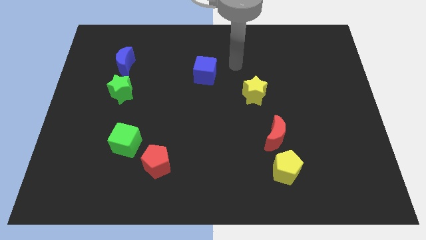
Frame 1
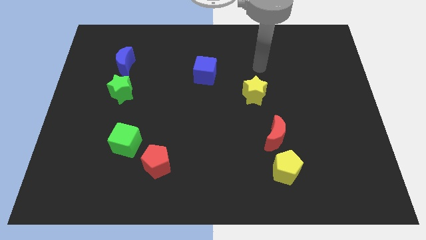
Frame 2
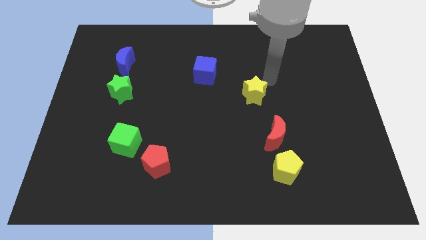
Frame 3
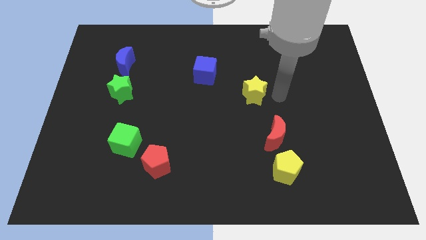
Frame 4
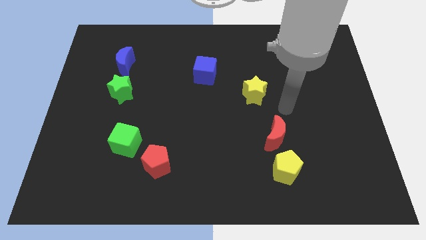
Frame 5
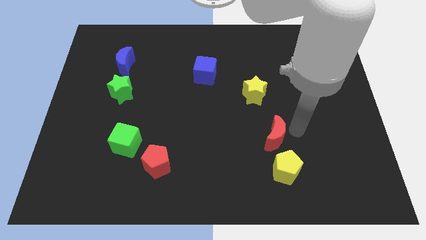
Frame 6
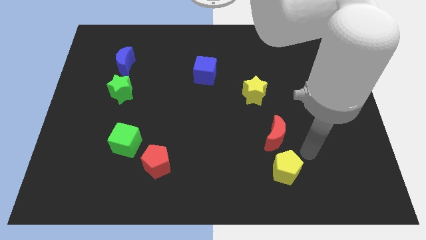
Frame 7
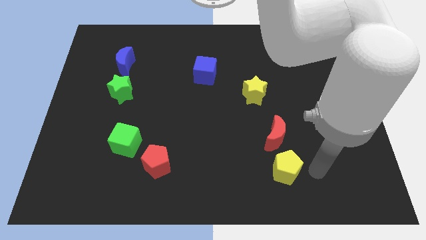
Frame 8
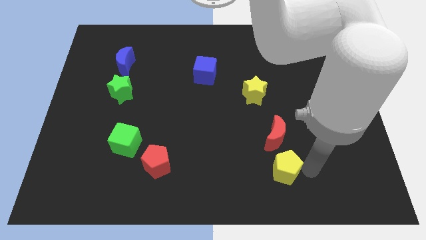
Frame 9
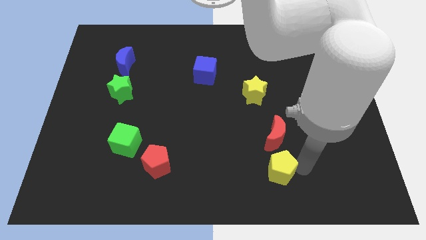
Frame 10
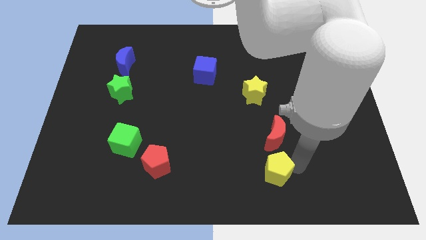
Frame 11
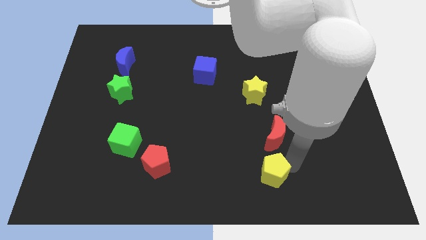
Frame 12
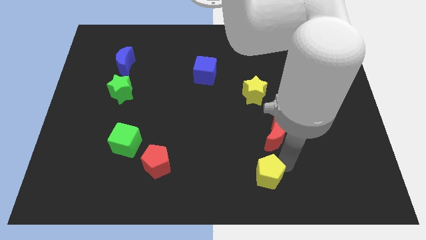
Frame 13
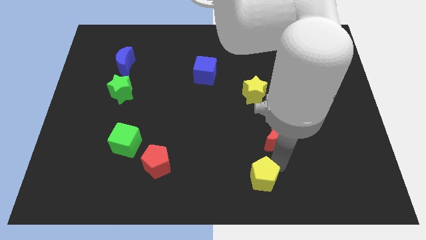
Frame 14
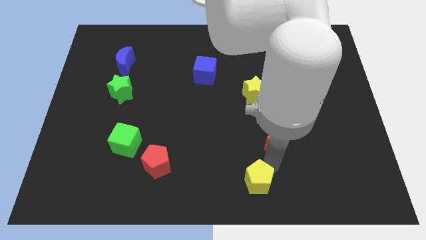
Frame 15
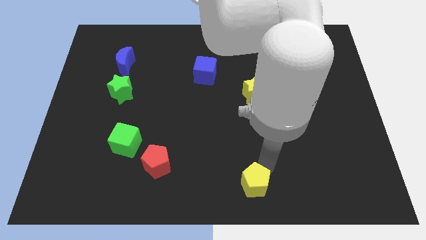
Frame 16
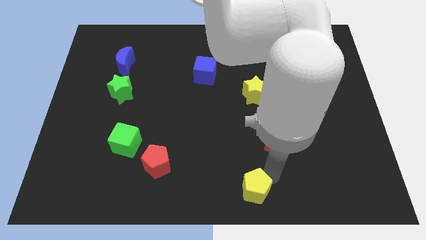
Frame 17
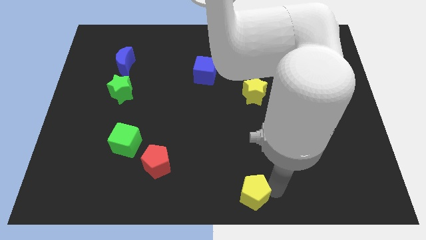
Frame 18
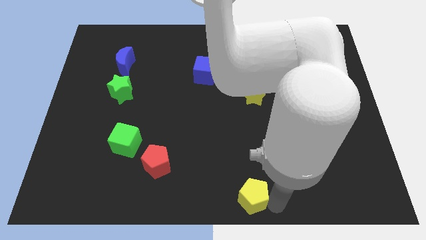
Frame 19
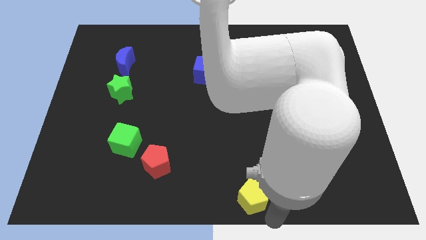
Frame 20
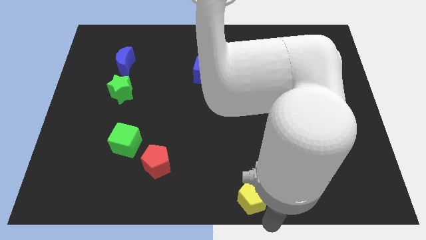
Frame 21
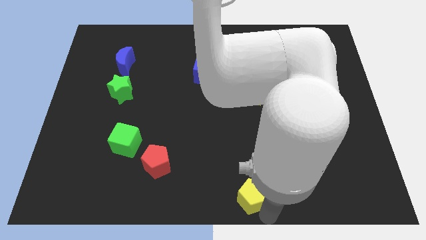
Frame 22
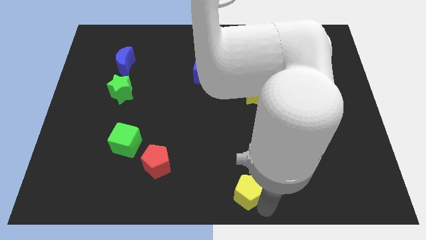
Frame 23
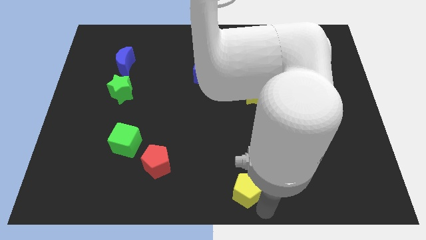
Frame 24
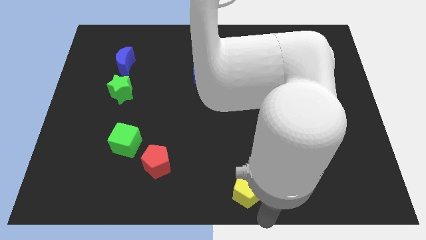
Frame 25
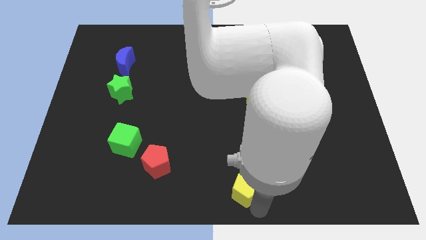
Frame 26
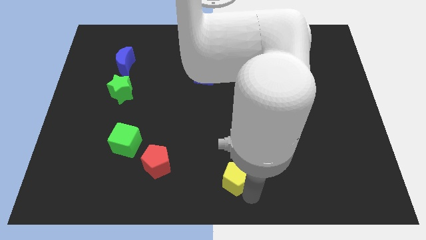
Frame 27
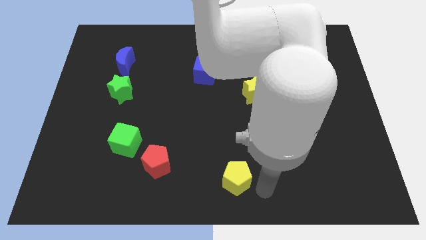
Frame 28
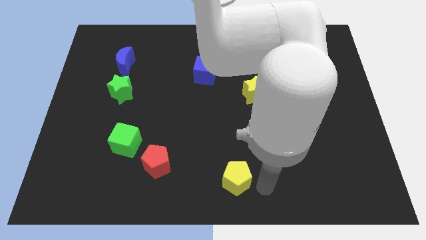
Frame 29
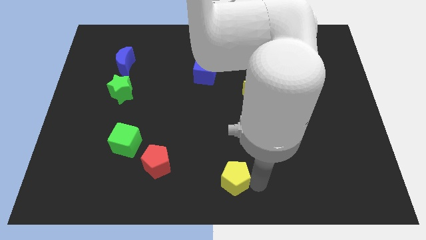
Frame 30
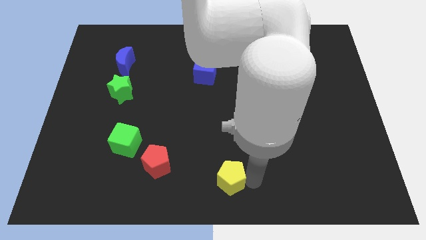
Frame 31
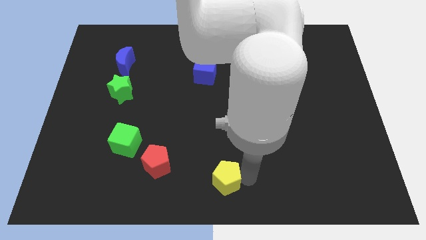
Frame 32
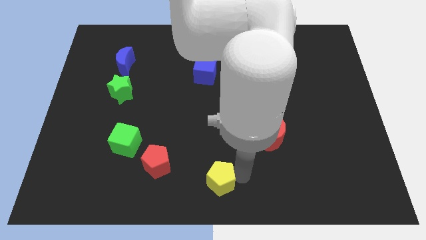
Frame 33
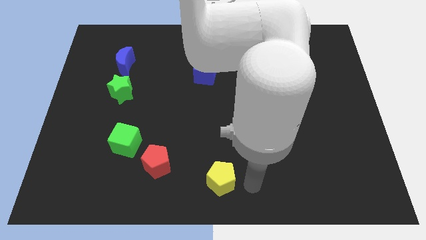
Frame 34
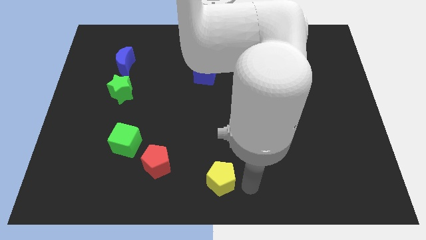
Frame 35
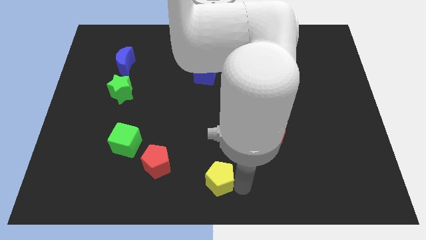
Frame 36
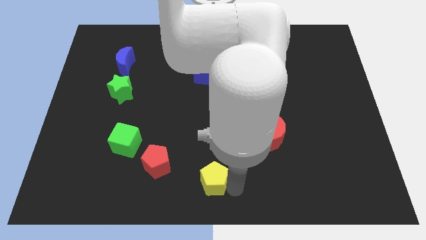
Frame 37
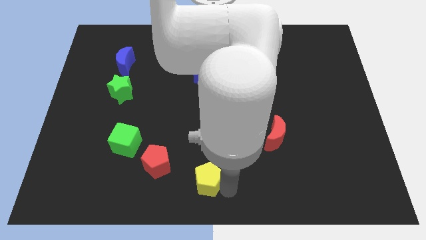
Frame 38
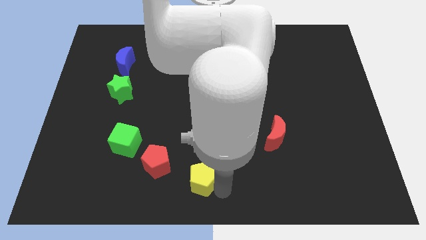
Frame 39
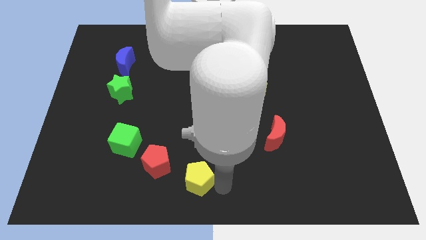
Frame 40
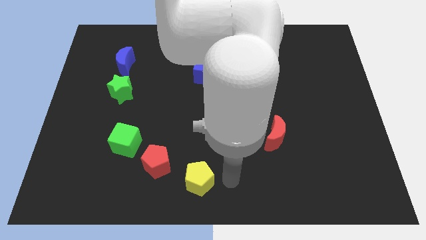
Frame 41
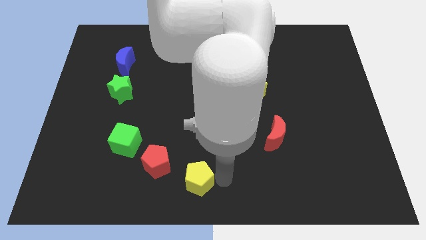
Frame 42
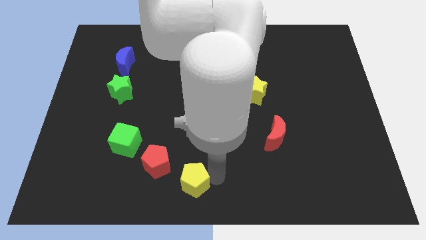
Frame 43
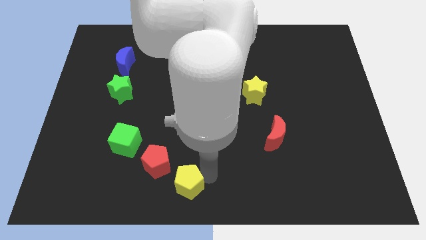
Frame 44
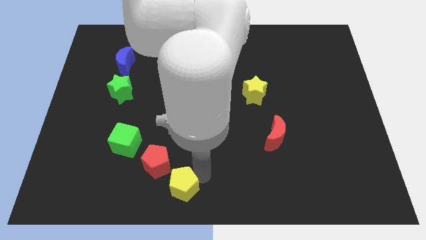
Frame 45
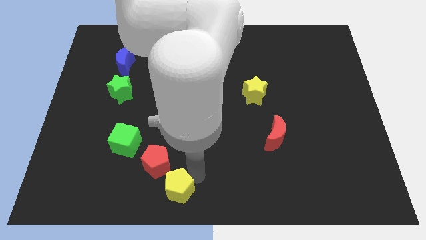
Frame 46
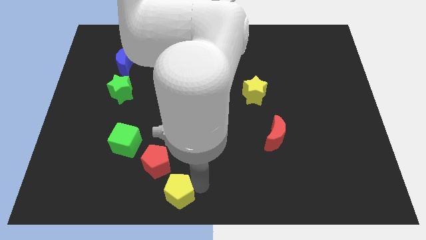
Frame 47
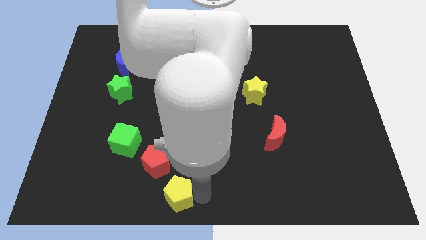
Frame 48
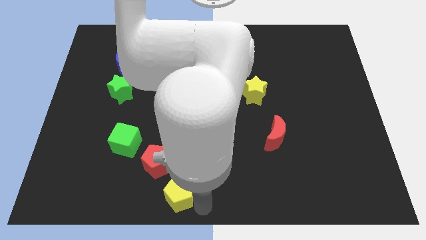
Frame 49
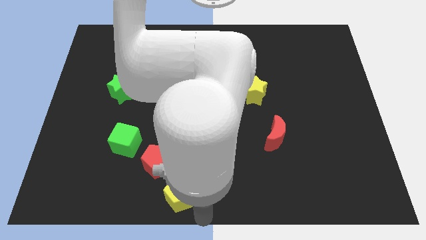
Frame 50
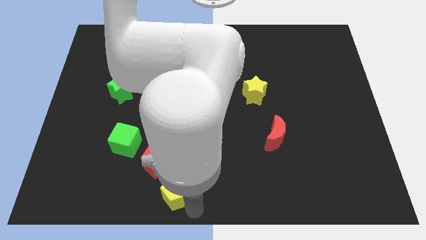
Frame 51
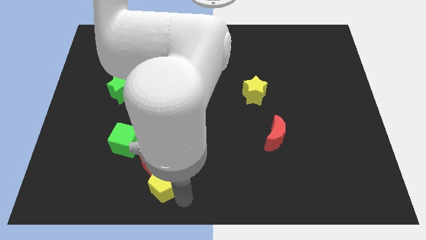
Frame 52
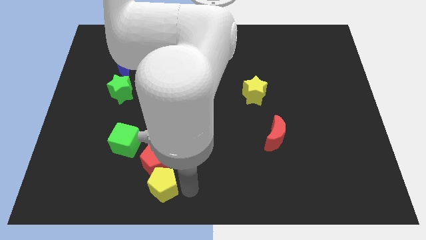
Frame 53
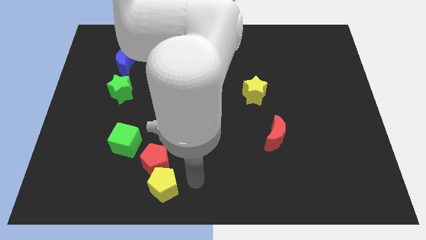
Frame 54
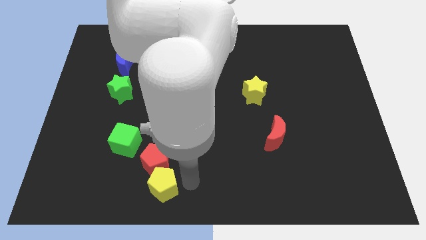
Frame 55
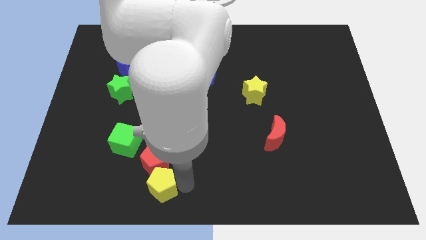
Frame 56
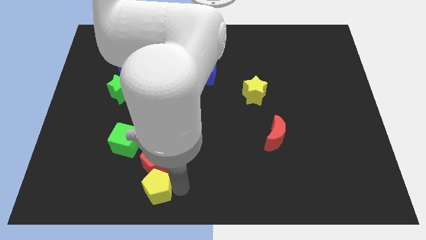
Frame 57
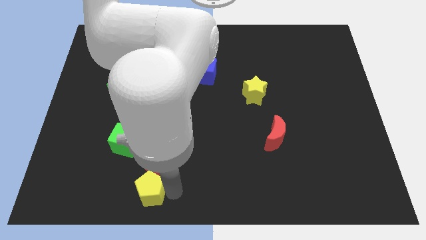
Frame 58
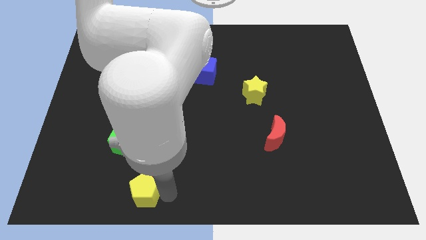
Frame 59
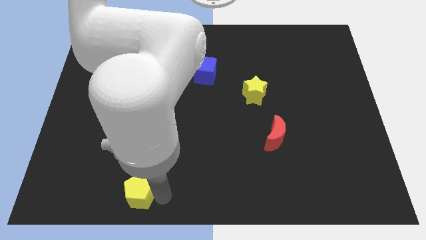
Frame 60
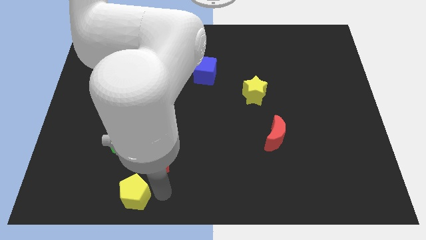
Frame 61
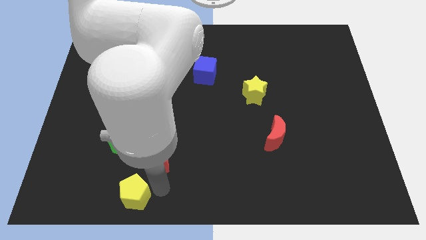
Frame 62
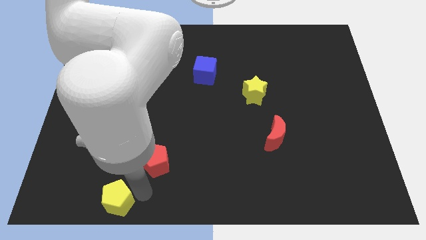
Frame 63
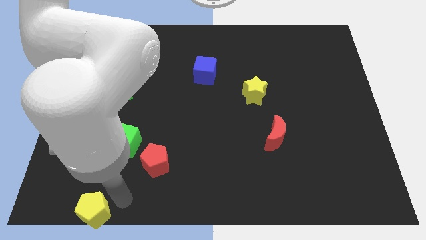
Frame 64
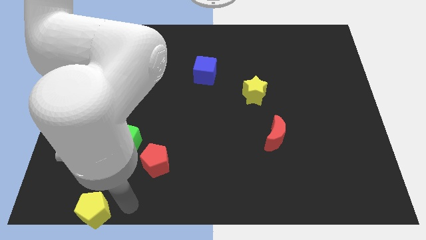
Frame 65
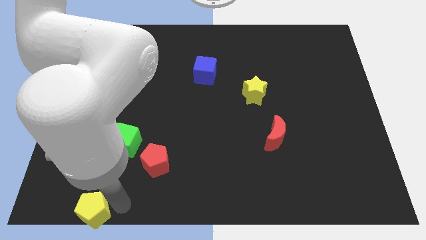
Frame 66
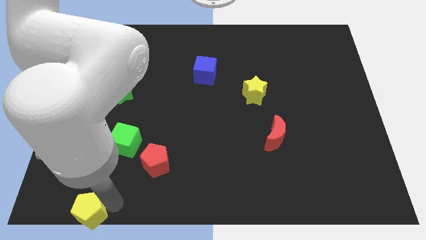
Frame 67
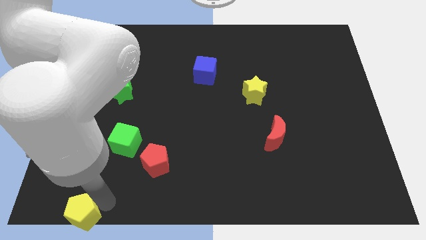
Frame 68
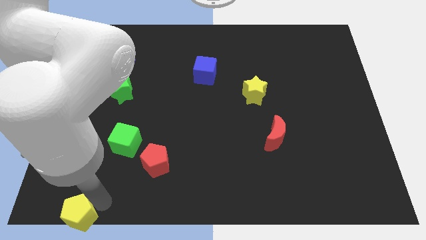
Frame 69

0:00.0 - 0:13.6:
push the yellow pentagon to the lower left corner
